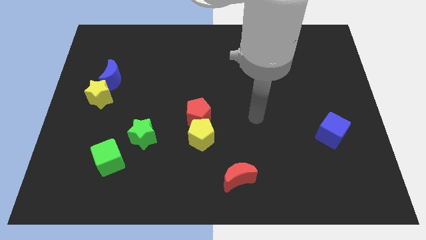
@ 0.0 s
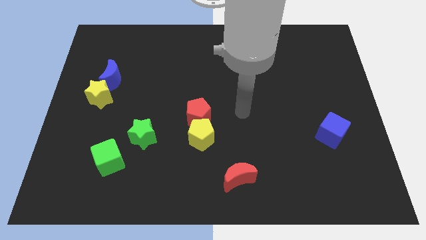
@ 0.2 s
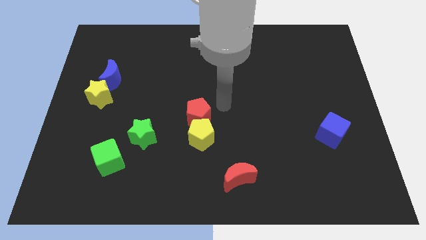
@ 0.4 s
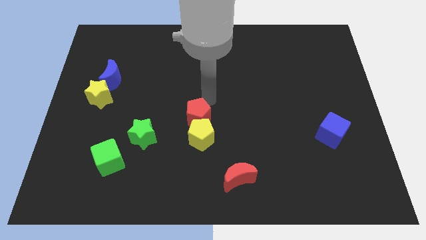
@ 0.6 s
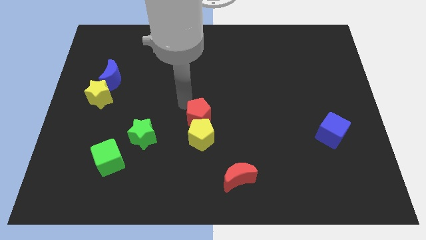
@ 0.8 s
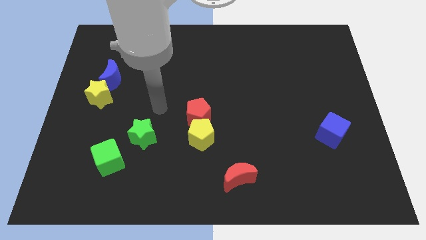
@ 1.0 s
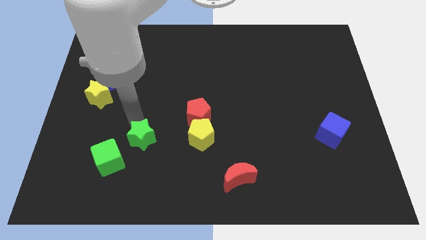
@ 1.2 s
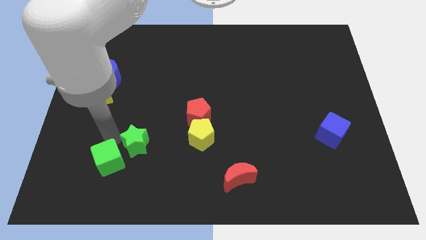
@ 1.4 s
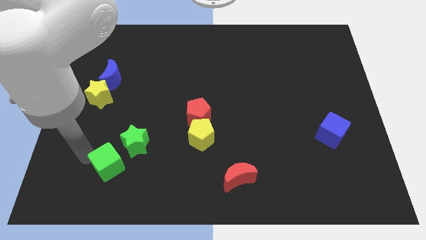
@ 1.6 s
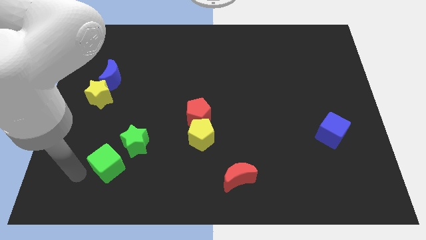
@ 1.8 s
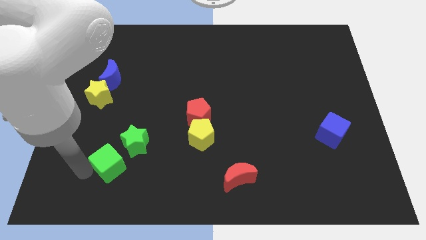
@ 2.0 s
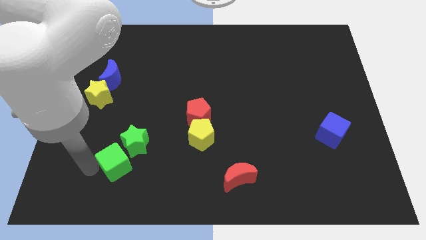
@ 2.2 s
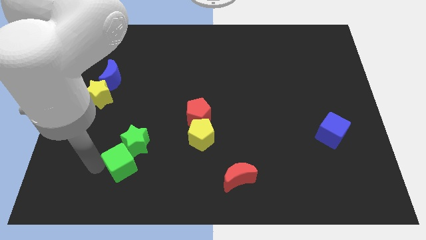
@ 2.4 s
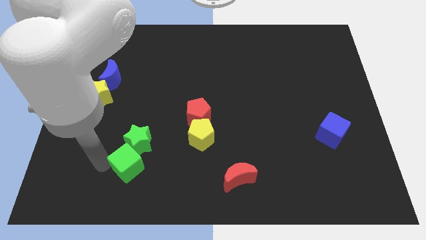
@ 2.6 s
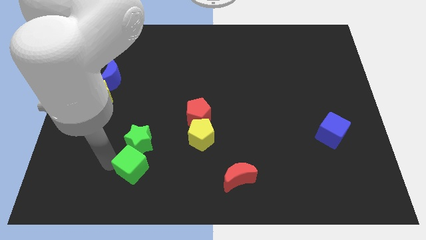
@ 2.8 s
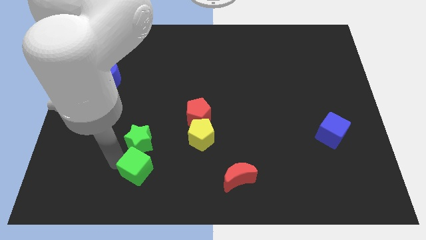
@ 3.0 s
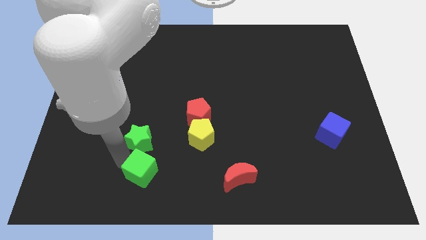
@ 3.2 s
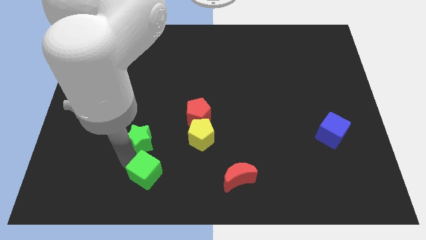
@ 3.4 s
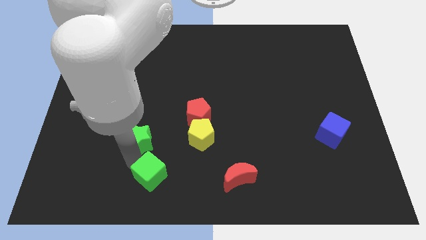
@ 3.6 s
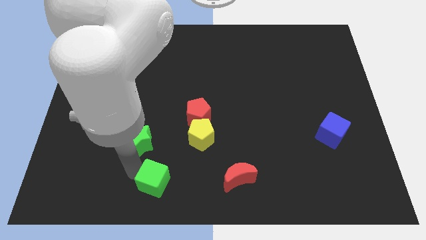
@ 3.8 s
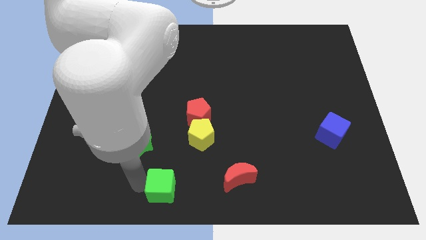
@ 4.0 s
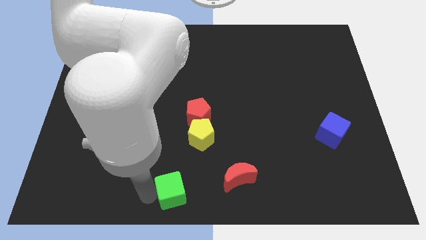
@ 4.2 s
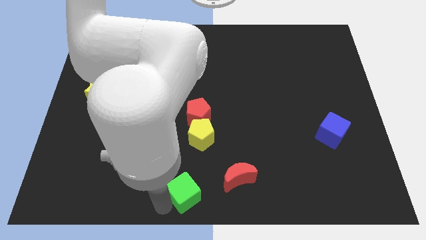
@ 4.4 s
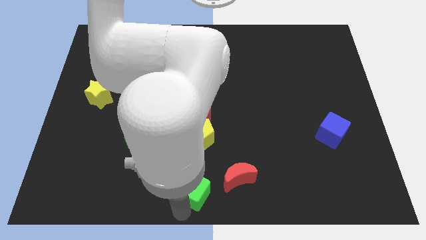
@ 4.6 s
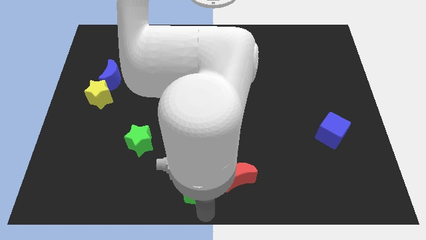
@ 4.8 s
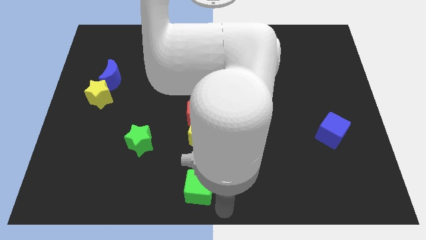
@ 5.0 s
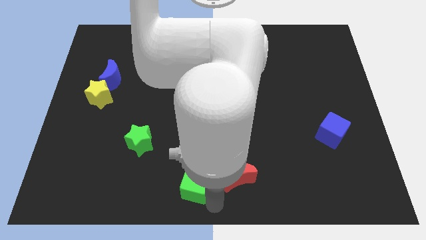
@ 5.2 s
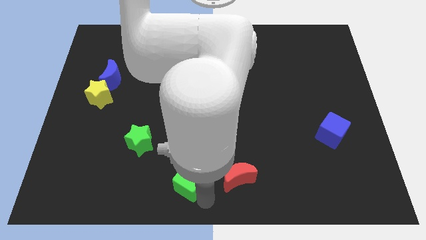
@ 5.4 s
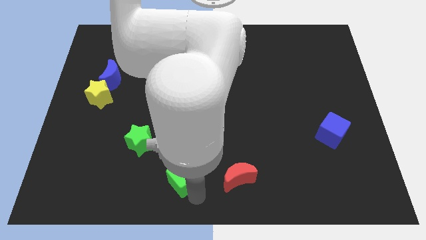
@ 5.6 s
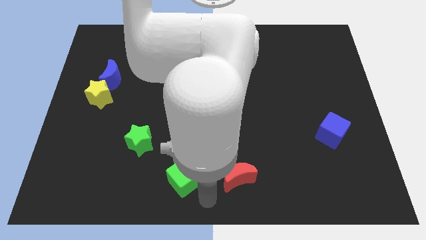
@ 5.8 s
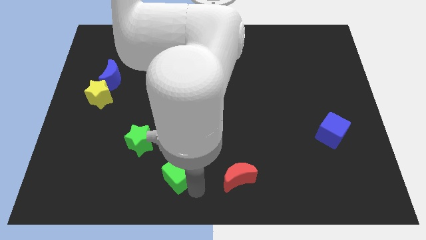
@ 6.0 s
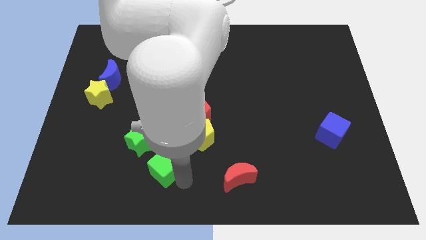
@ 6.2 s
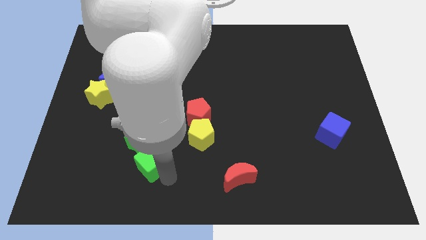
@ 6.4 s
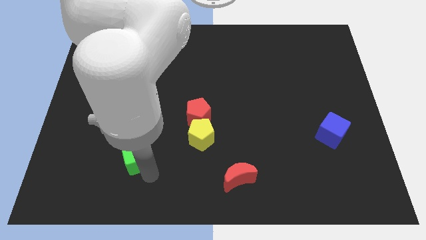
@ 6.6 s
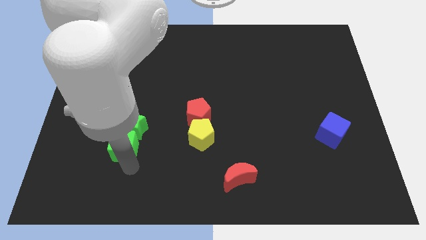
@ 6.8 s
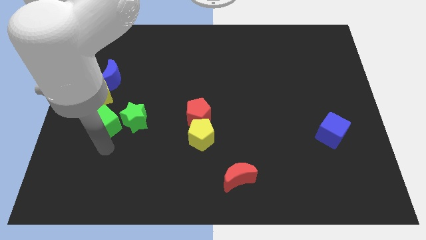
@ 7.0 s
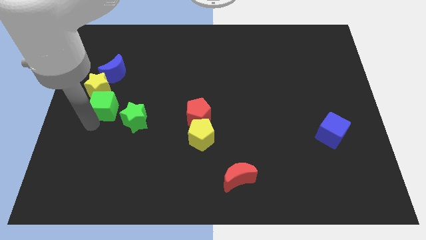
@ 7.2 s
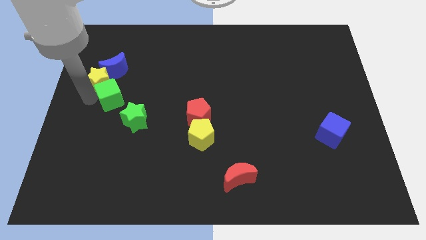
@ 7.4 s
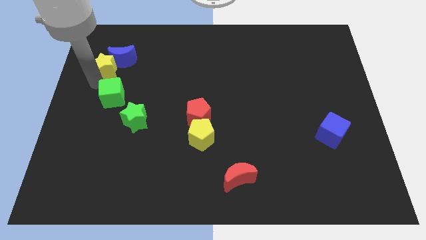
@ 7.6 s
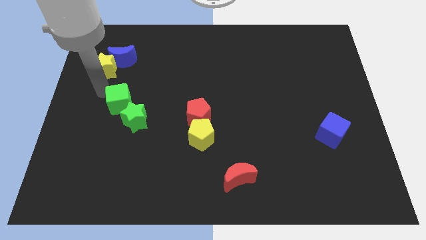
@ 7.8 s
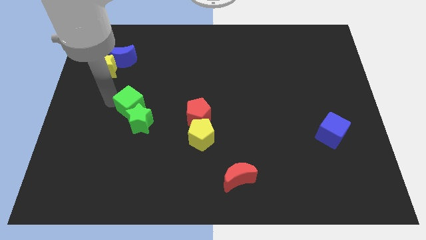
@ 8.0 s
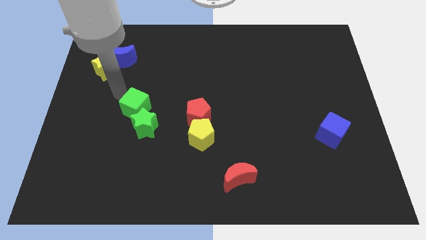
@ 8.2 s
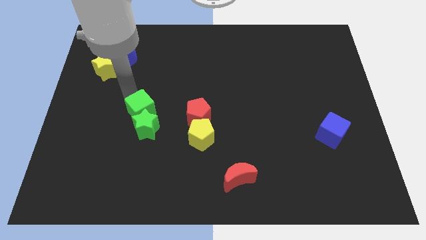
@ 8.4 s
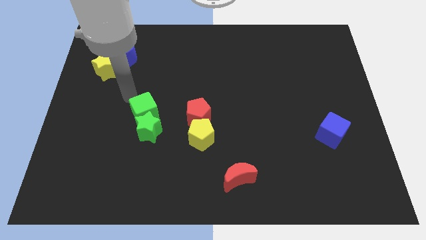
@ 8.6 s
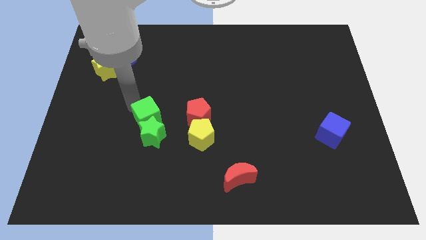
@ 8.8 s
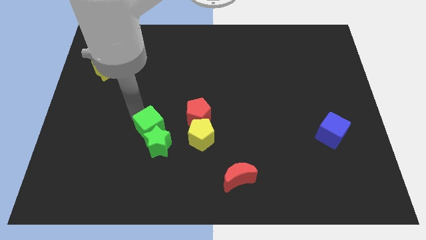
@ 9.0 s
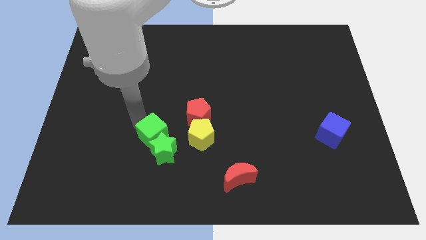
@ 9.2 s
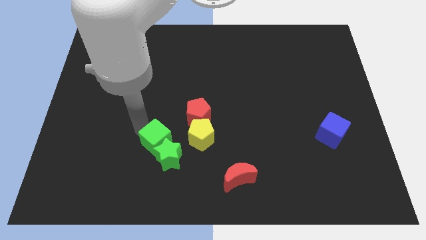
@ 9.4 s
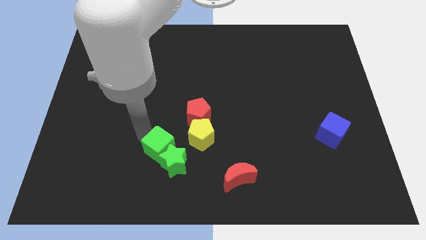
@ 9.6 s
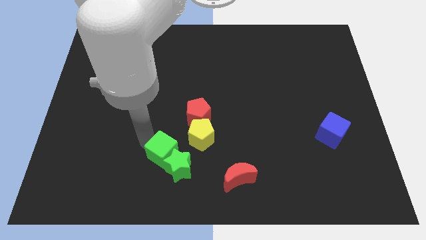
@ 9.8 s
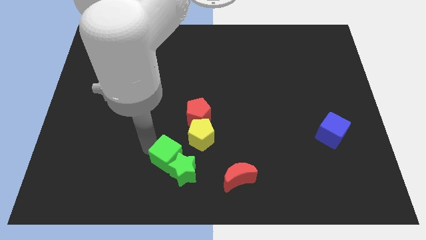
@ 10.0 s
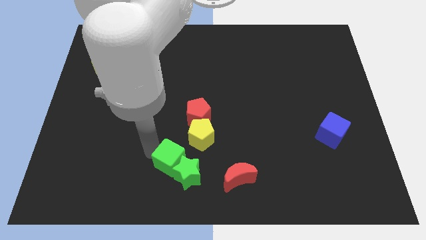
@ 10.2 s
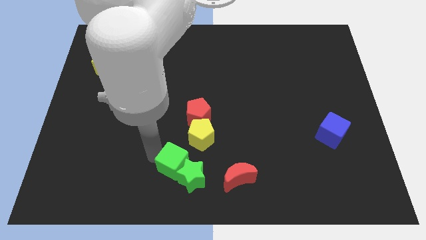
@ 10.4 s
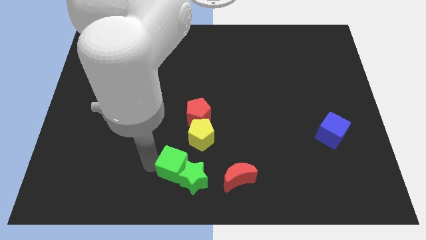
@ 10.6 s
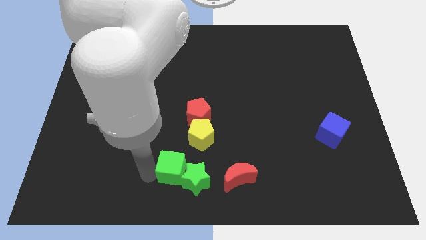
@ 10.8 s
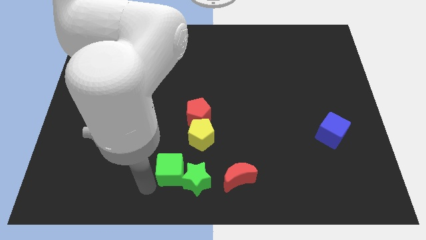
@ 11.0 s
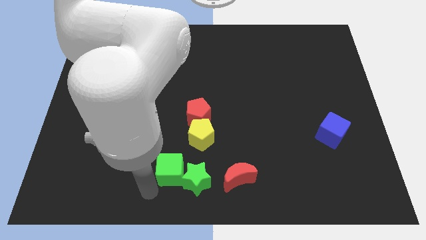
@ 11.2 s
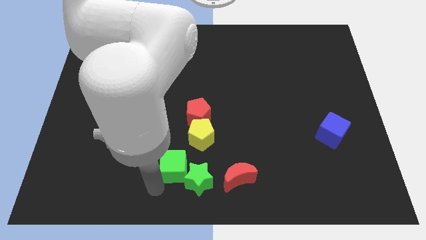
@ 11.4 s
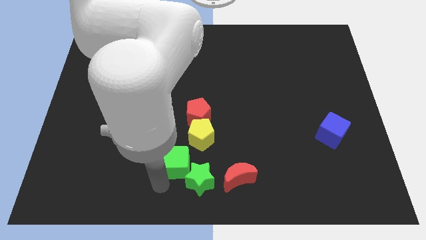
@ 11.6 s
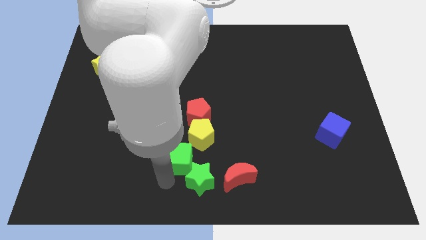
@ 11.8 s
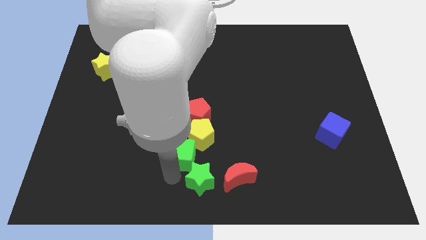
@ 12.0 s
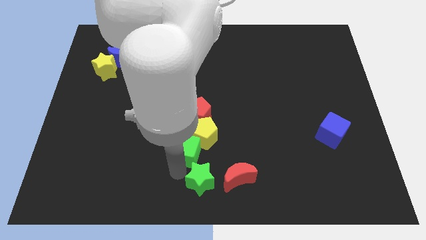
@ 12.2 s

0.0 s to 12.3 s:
slide the green cube to the top left of the red moon
